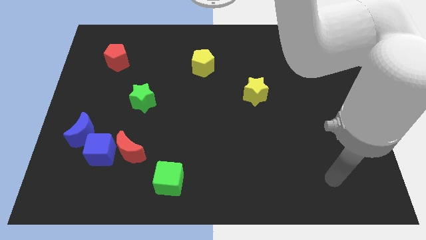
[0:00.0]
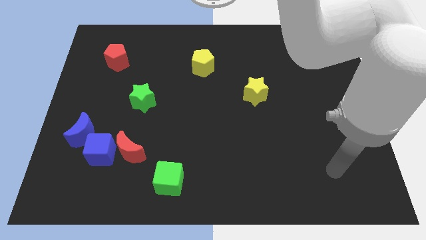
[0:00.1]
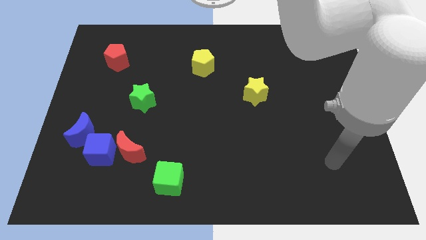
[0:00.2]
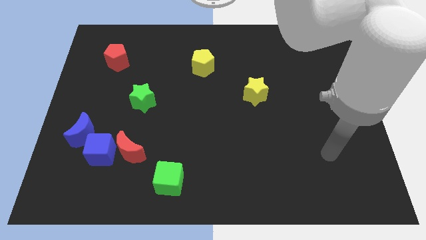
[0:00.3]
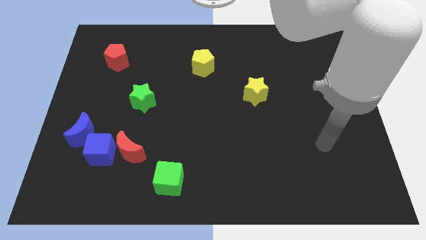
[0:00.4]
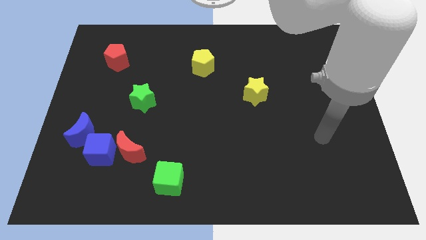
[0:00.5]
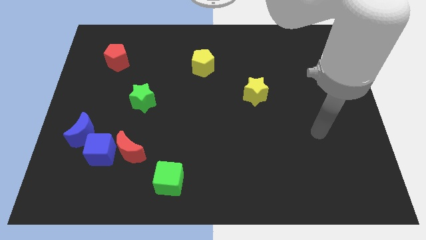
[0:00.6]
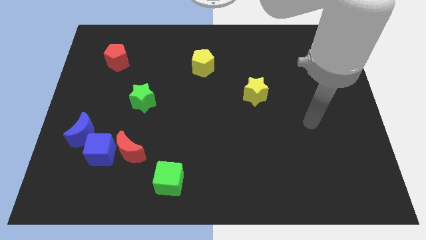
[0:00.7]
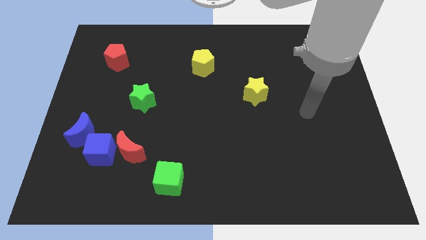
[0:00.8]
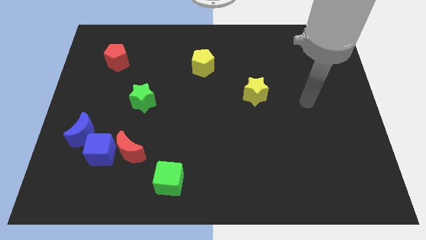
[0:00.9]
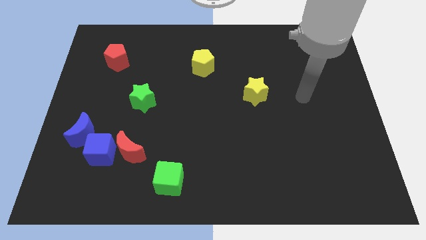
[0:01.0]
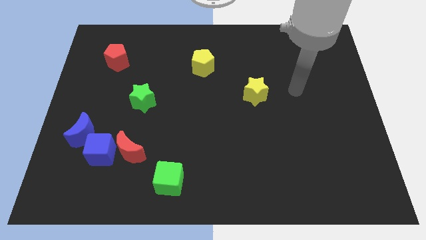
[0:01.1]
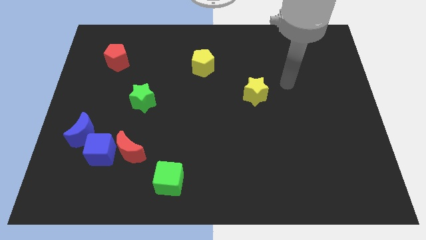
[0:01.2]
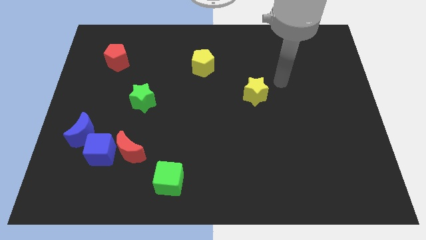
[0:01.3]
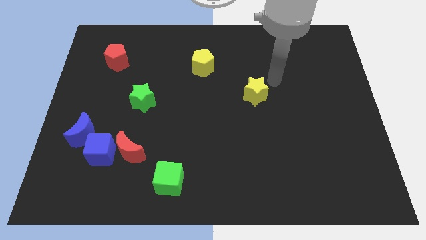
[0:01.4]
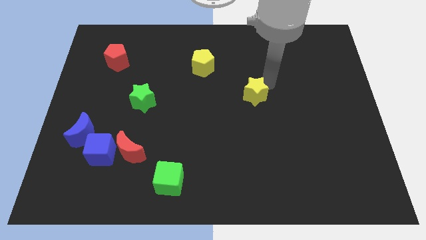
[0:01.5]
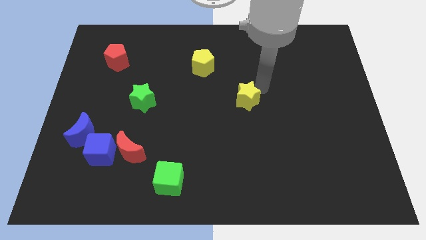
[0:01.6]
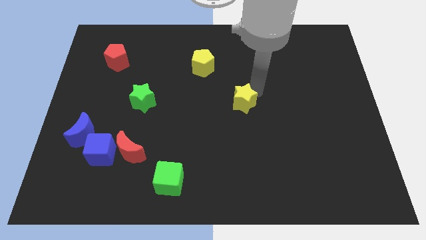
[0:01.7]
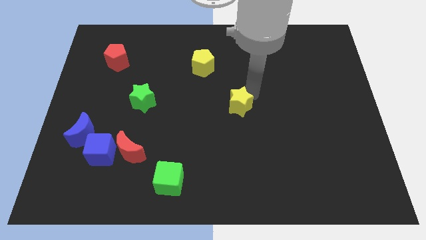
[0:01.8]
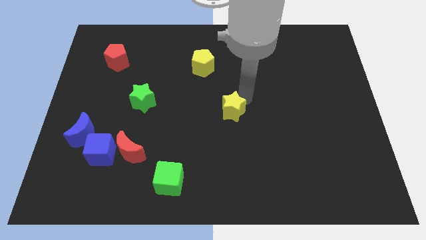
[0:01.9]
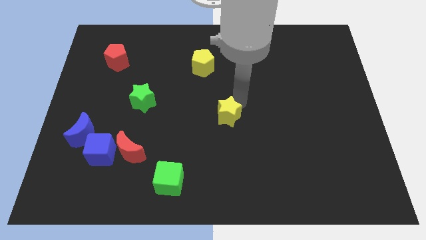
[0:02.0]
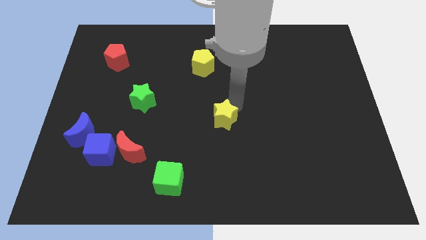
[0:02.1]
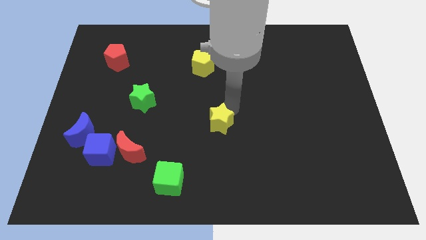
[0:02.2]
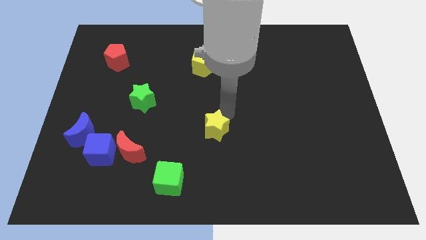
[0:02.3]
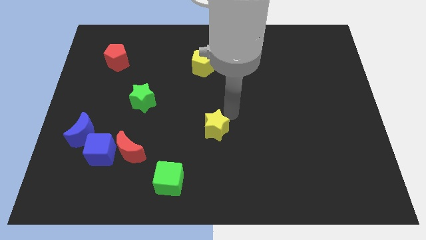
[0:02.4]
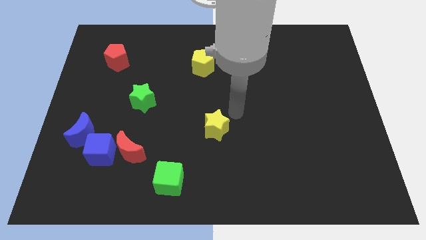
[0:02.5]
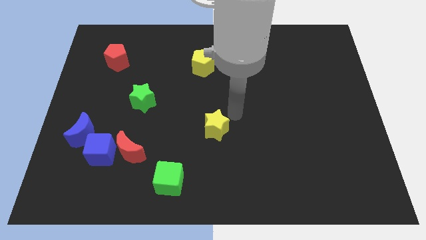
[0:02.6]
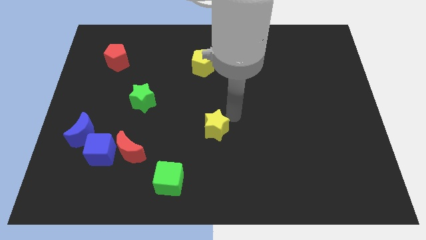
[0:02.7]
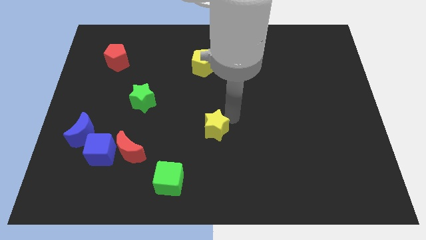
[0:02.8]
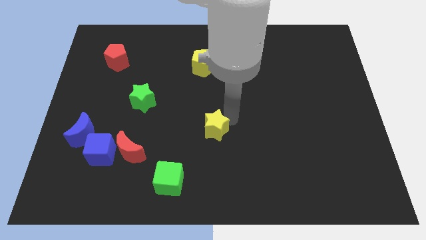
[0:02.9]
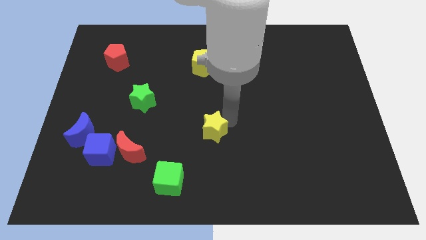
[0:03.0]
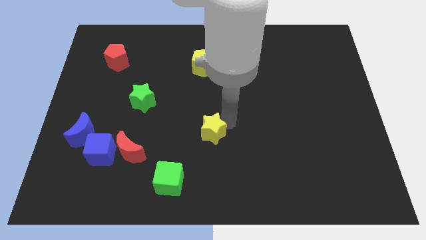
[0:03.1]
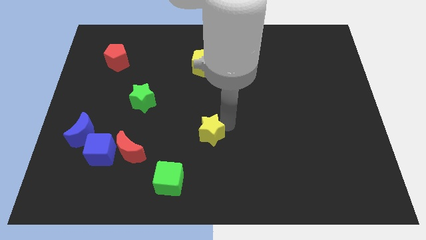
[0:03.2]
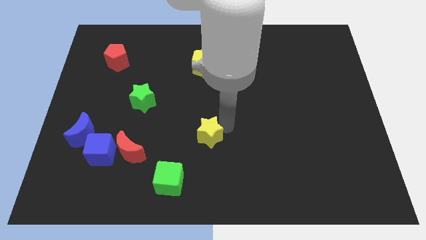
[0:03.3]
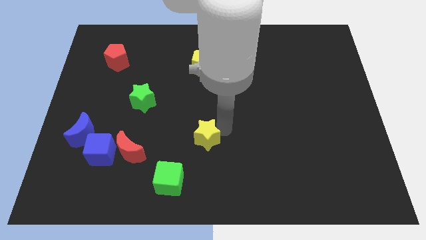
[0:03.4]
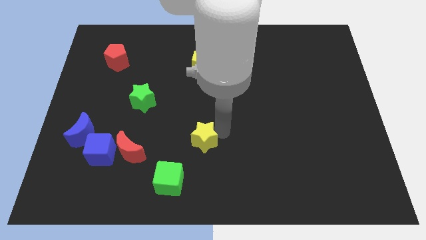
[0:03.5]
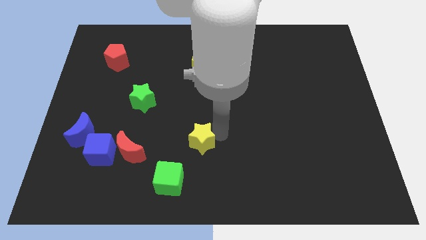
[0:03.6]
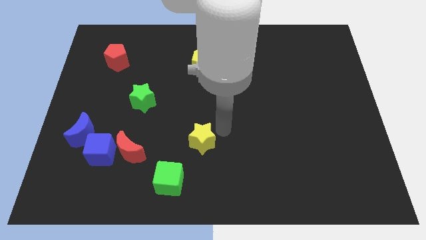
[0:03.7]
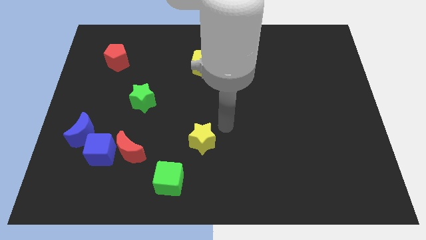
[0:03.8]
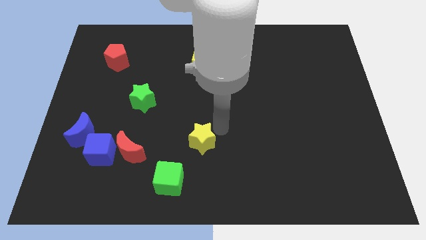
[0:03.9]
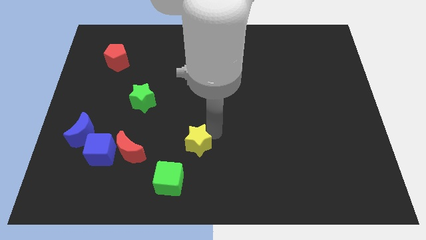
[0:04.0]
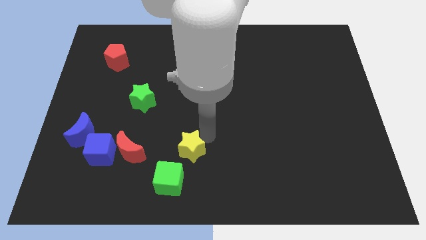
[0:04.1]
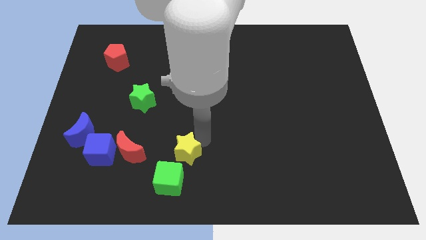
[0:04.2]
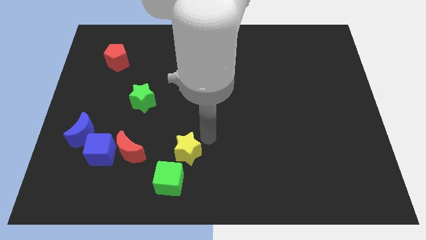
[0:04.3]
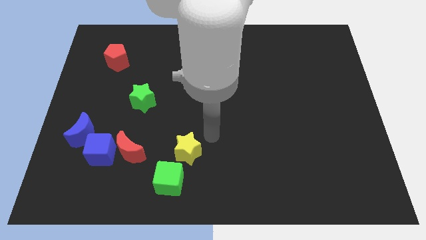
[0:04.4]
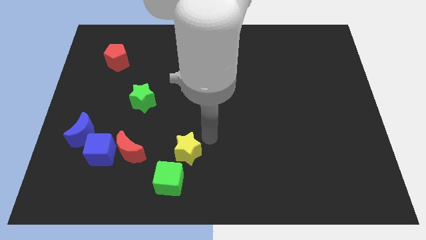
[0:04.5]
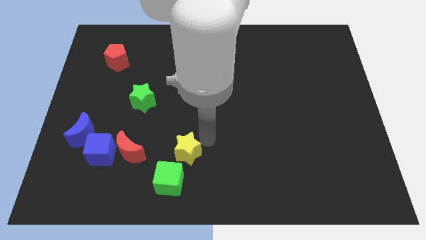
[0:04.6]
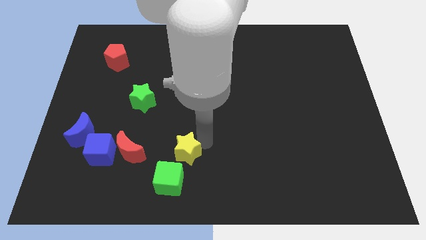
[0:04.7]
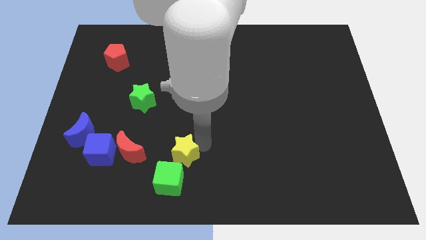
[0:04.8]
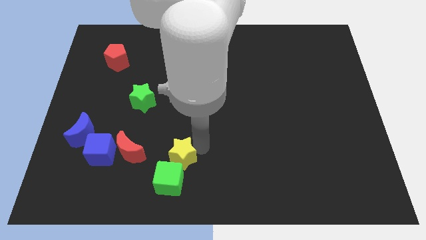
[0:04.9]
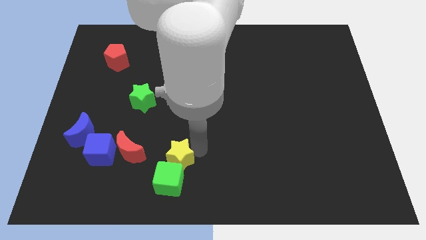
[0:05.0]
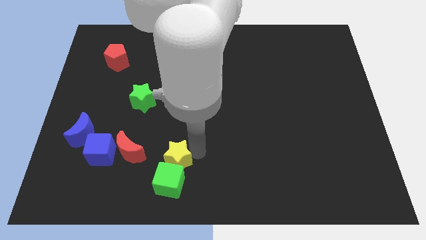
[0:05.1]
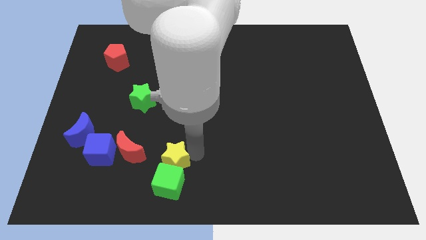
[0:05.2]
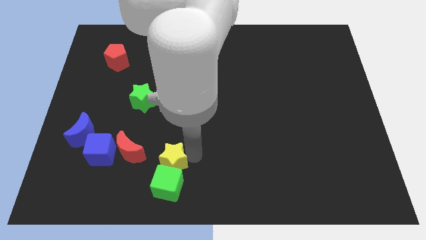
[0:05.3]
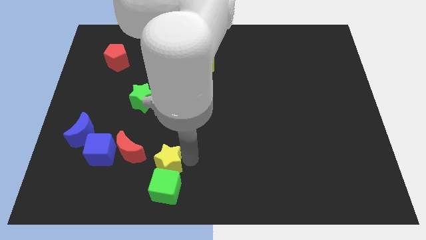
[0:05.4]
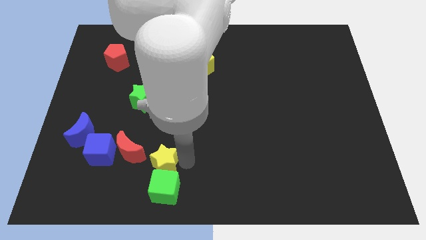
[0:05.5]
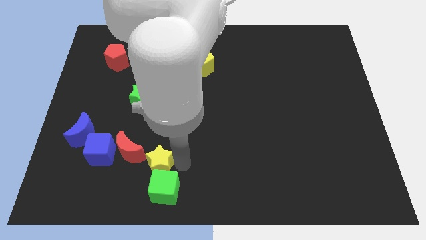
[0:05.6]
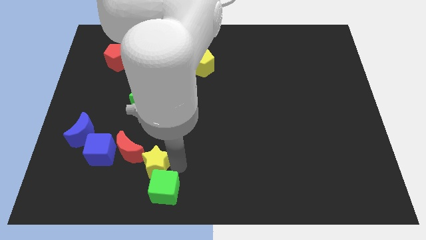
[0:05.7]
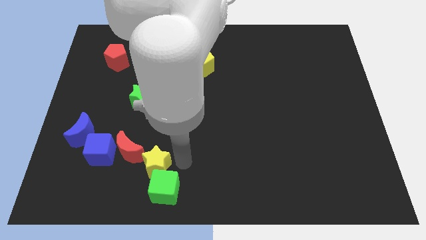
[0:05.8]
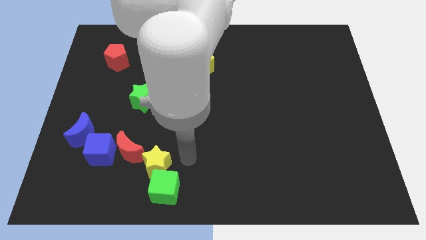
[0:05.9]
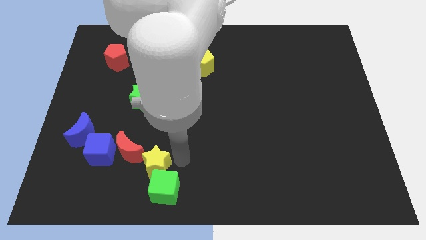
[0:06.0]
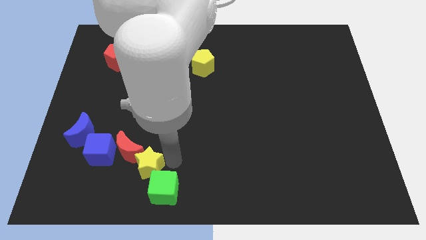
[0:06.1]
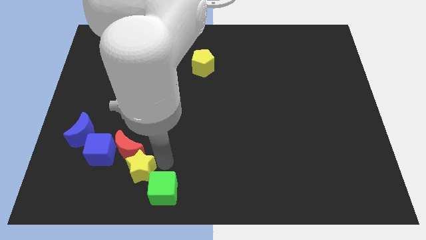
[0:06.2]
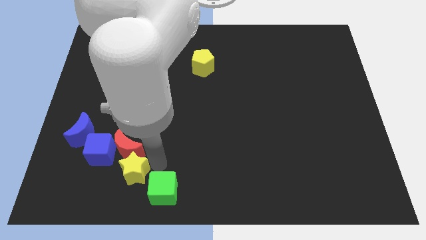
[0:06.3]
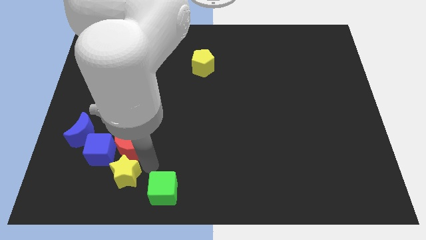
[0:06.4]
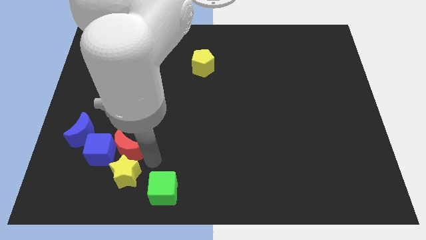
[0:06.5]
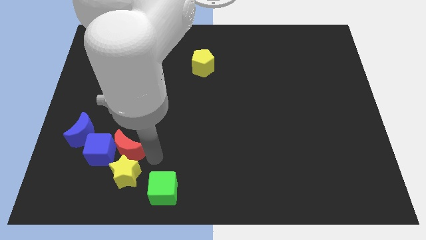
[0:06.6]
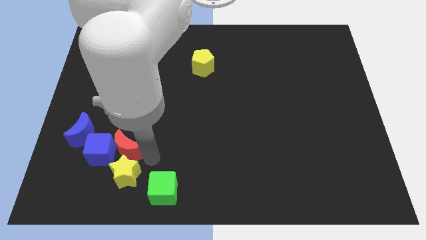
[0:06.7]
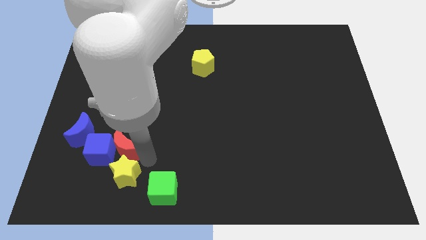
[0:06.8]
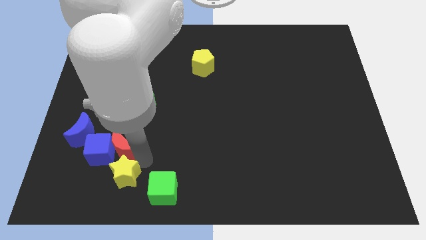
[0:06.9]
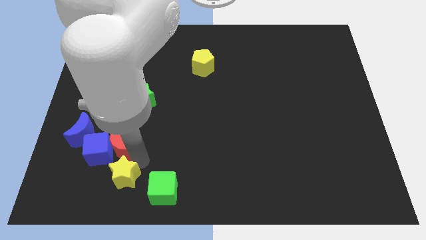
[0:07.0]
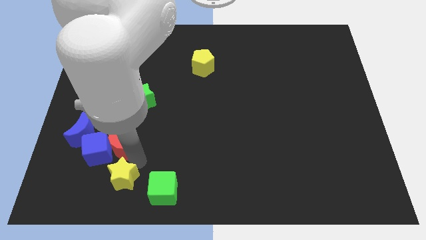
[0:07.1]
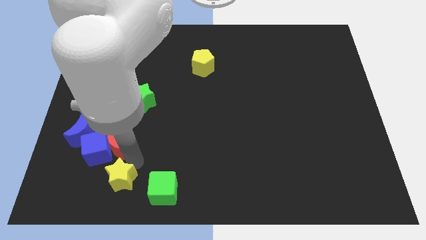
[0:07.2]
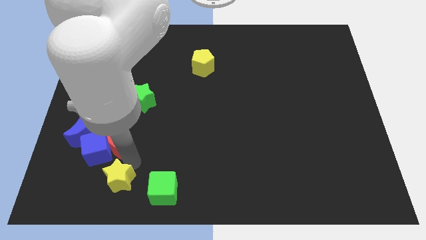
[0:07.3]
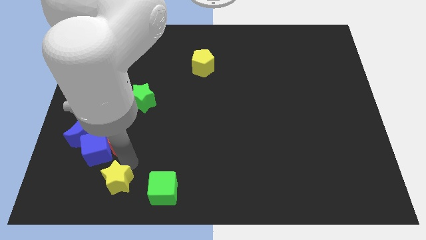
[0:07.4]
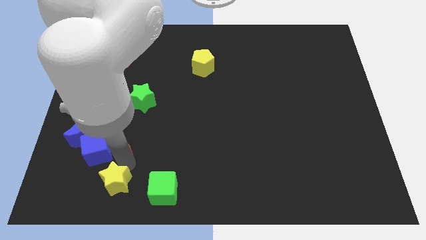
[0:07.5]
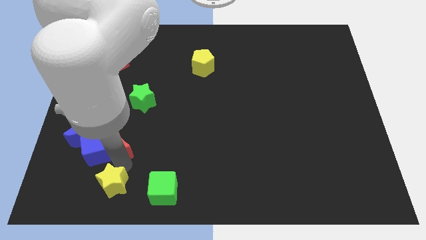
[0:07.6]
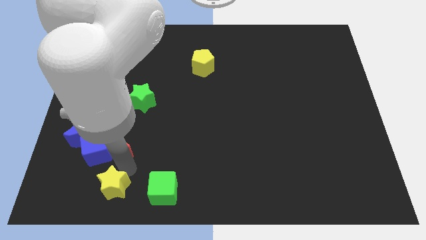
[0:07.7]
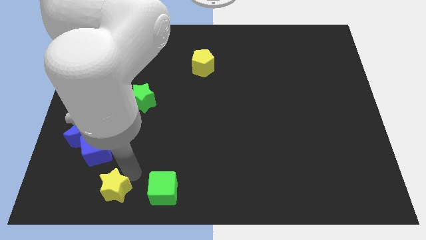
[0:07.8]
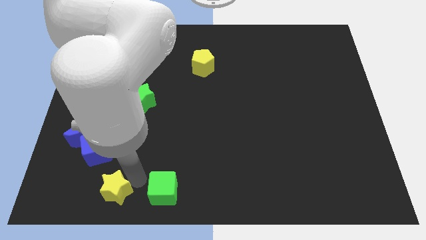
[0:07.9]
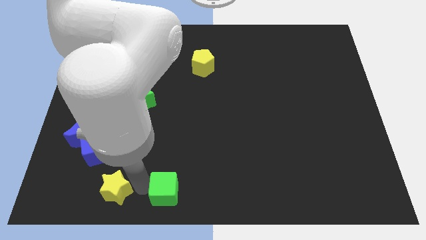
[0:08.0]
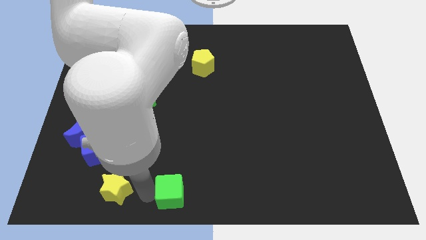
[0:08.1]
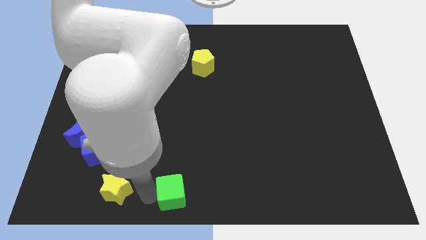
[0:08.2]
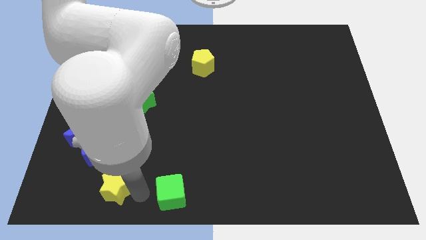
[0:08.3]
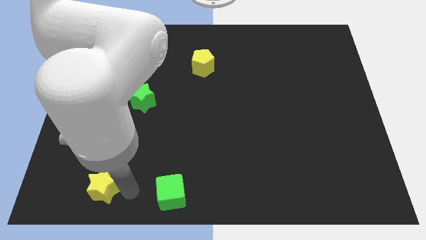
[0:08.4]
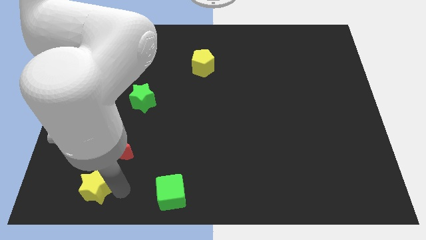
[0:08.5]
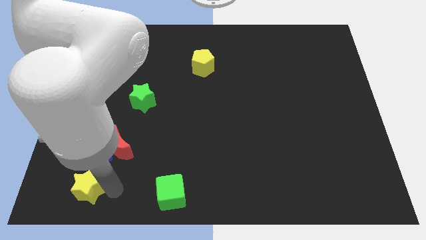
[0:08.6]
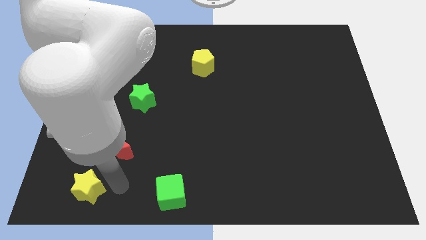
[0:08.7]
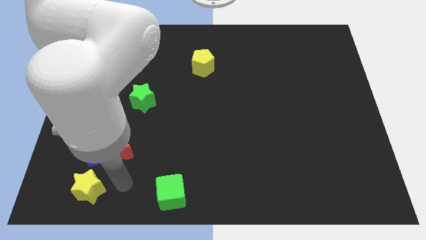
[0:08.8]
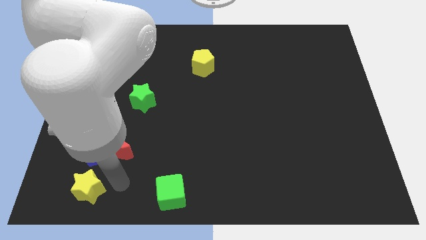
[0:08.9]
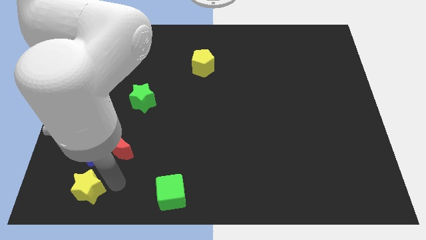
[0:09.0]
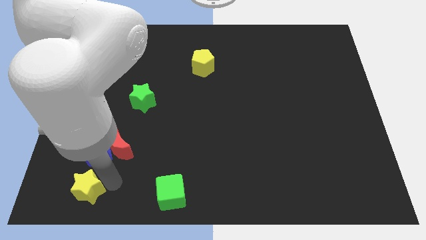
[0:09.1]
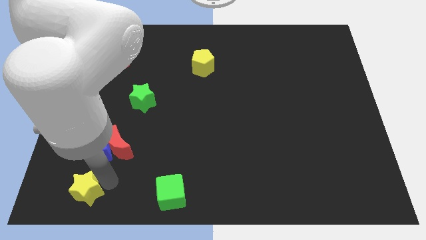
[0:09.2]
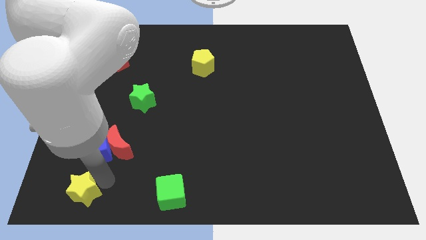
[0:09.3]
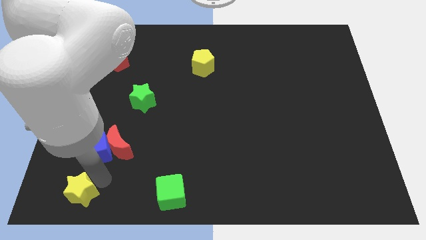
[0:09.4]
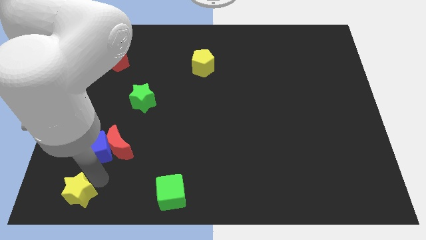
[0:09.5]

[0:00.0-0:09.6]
push the yellow star to the bottom left of the board
